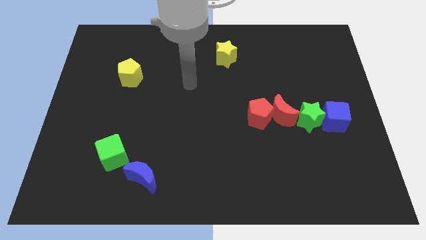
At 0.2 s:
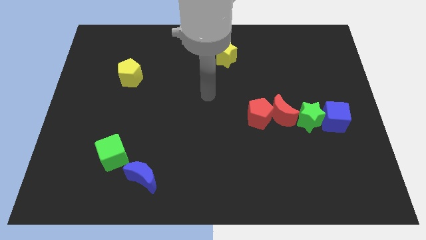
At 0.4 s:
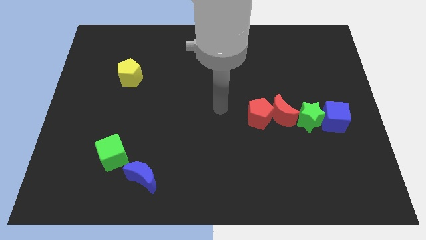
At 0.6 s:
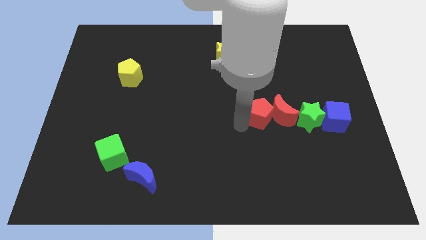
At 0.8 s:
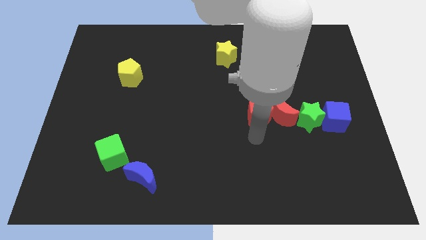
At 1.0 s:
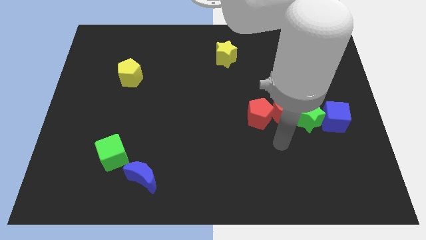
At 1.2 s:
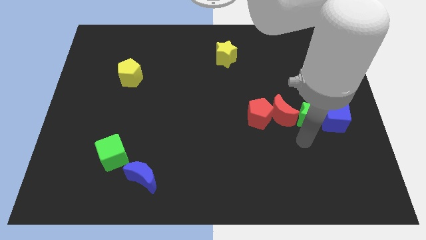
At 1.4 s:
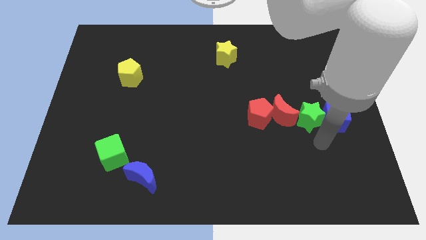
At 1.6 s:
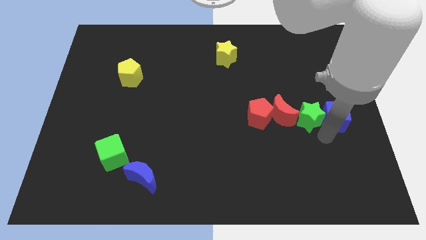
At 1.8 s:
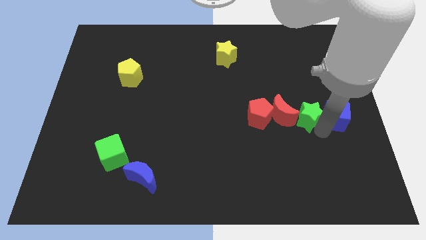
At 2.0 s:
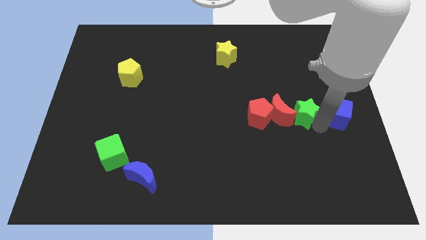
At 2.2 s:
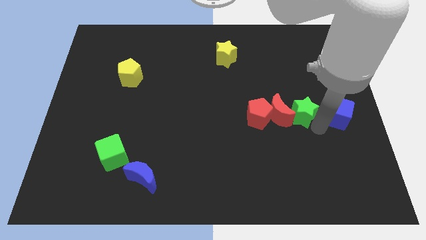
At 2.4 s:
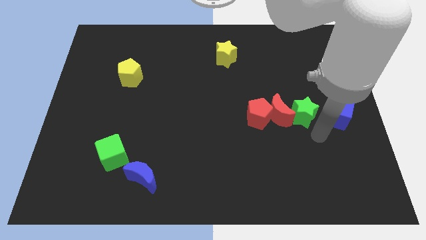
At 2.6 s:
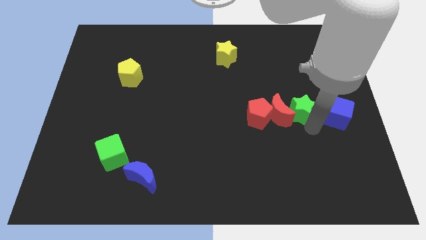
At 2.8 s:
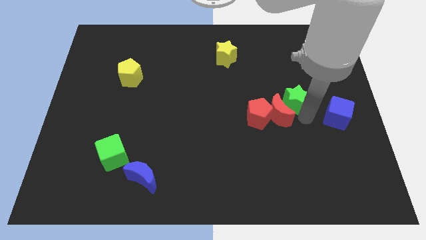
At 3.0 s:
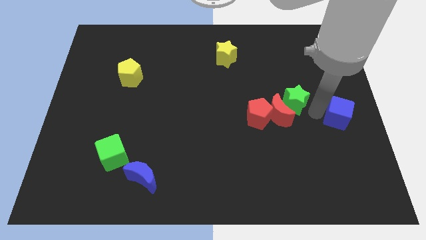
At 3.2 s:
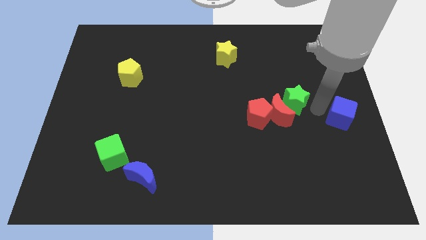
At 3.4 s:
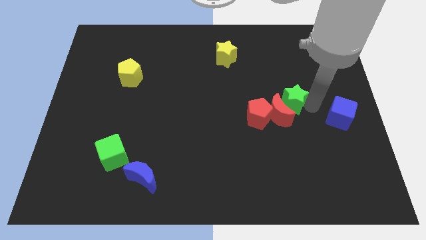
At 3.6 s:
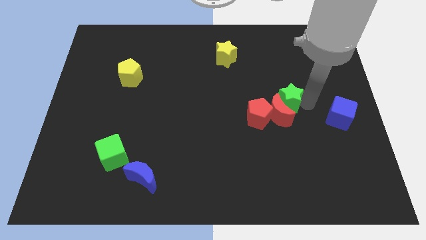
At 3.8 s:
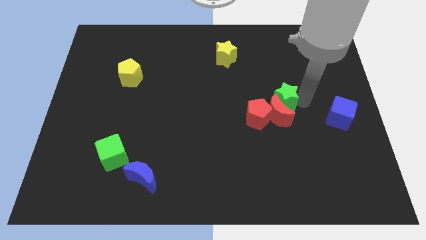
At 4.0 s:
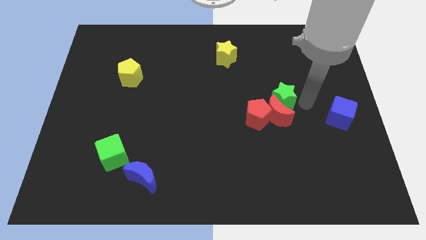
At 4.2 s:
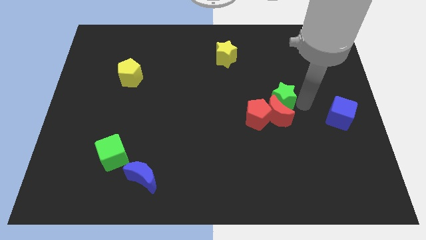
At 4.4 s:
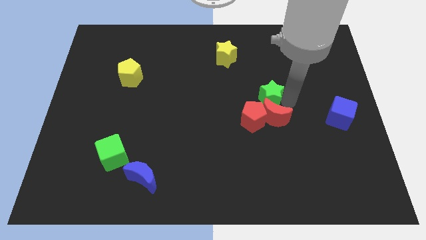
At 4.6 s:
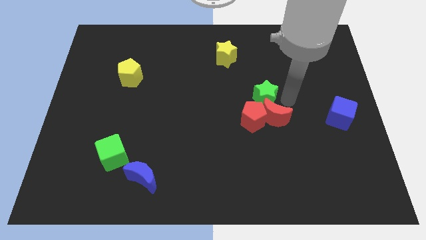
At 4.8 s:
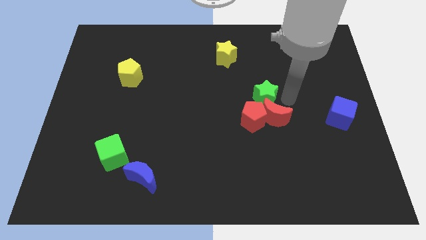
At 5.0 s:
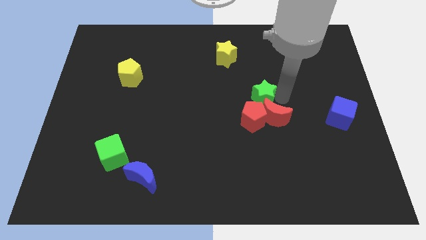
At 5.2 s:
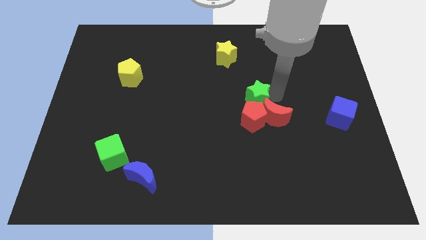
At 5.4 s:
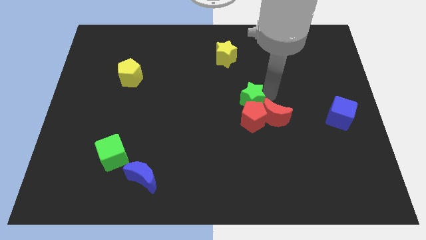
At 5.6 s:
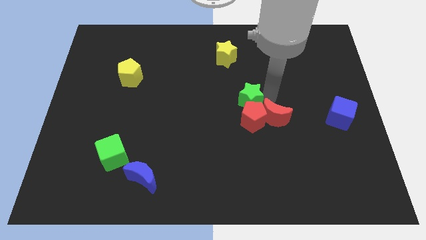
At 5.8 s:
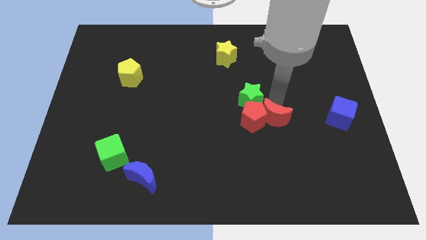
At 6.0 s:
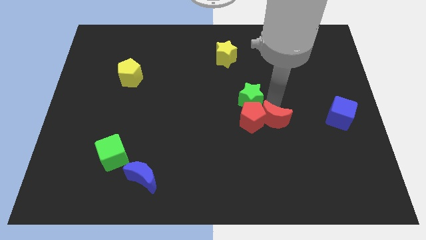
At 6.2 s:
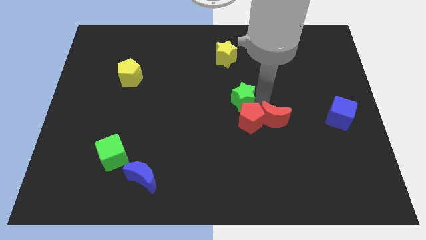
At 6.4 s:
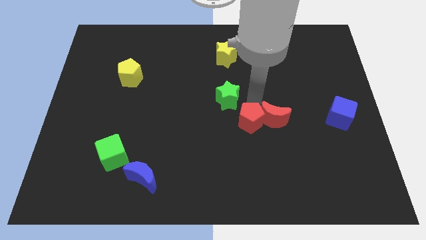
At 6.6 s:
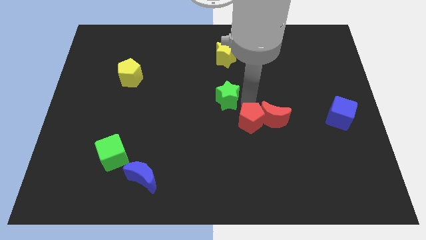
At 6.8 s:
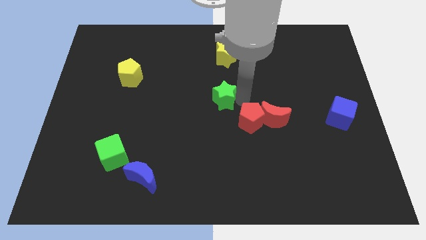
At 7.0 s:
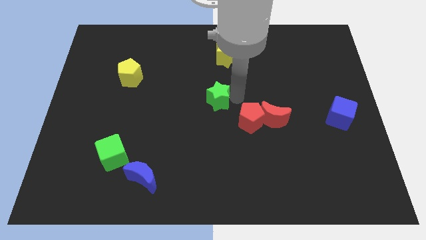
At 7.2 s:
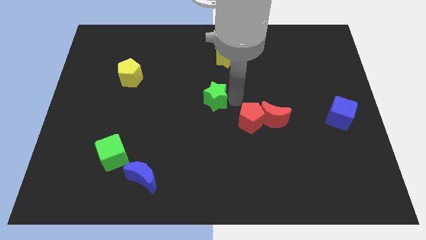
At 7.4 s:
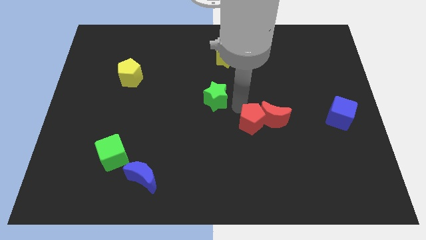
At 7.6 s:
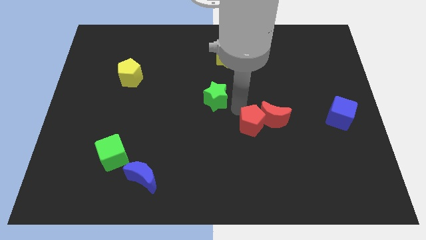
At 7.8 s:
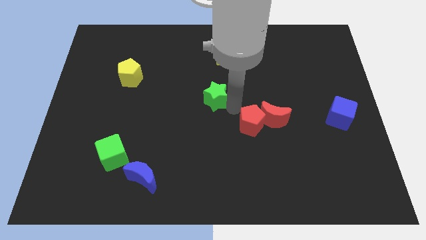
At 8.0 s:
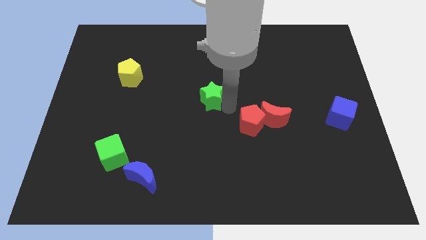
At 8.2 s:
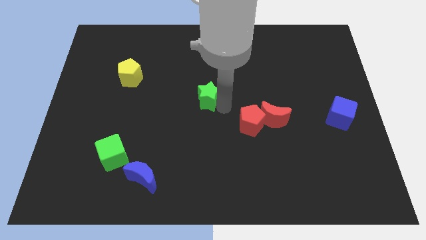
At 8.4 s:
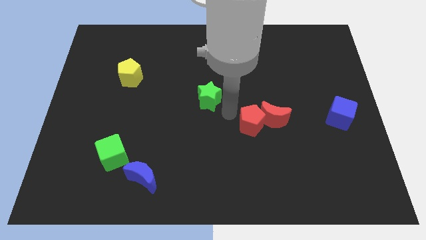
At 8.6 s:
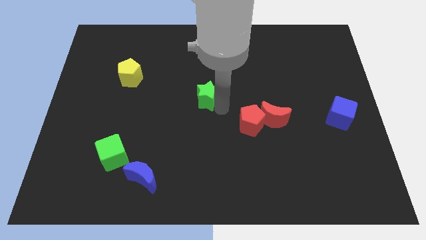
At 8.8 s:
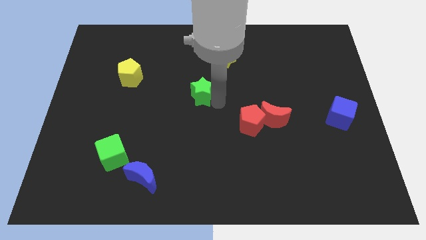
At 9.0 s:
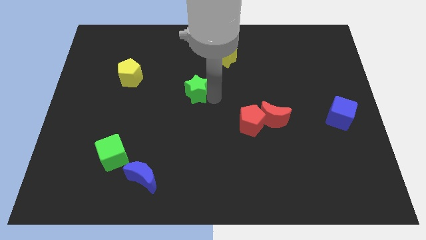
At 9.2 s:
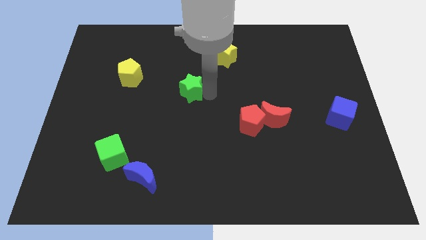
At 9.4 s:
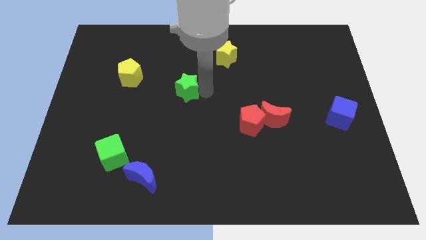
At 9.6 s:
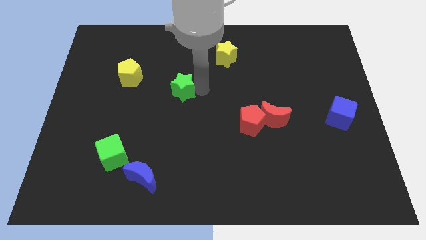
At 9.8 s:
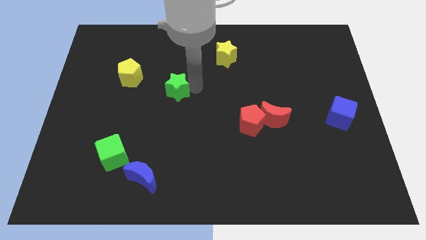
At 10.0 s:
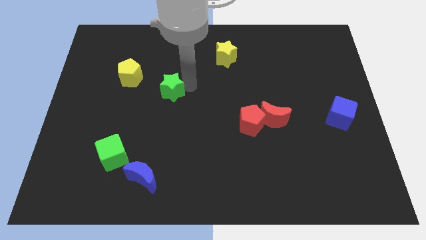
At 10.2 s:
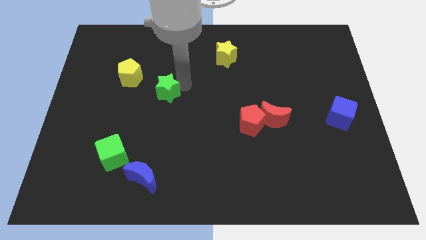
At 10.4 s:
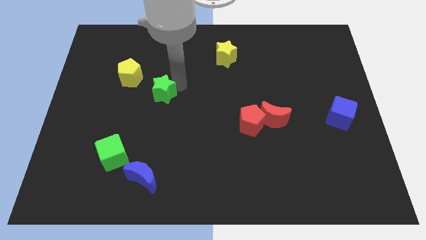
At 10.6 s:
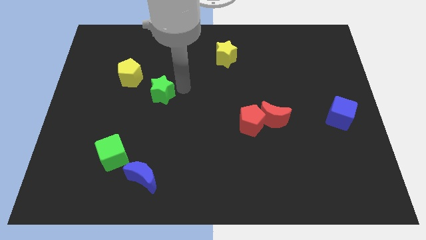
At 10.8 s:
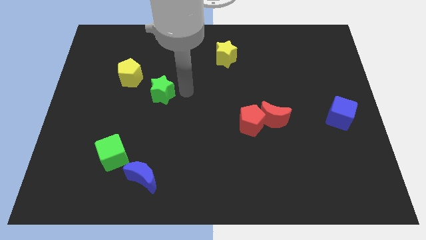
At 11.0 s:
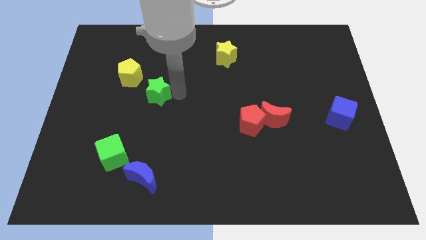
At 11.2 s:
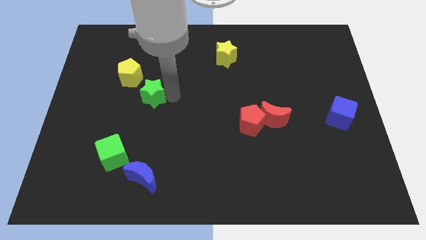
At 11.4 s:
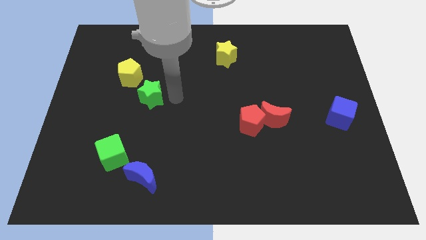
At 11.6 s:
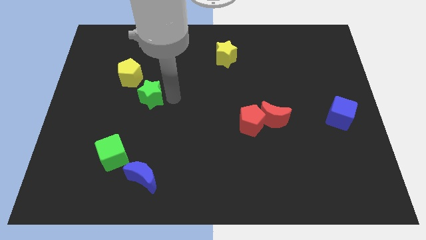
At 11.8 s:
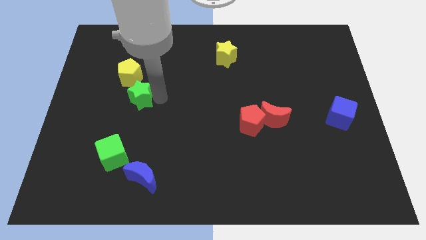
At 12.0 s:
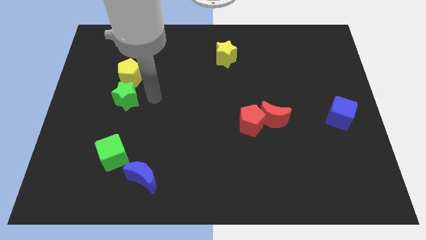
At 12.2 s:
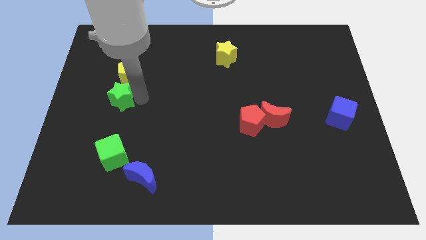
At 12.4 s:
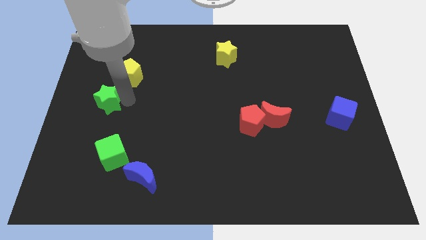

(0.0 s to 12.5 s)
slide the green star to the left side of the board
